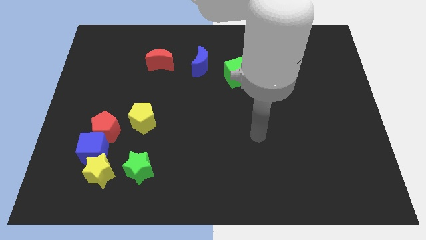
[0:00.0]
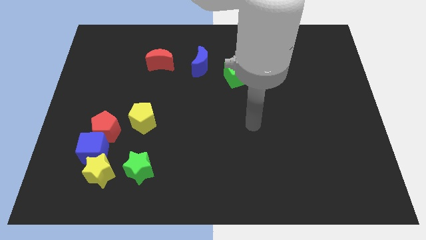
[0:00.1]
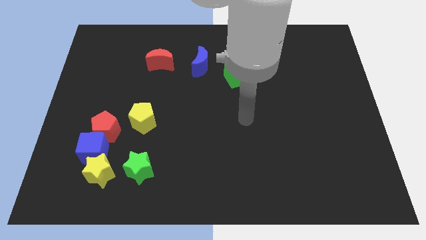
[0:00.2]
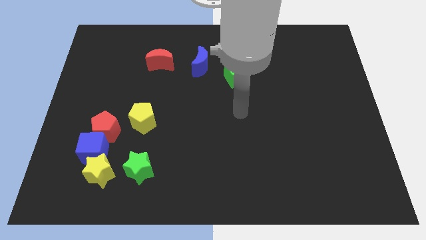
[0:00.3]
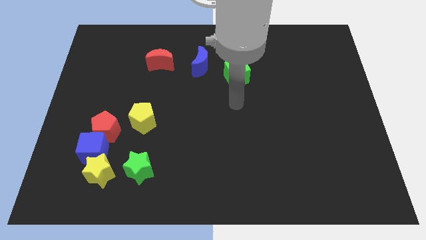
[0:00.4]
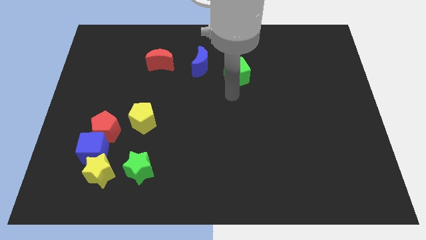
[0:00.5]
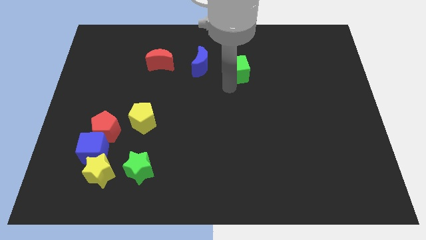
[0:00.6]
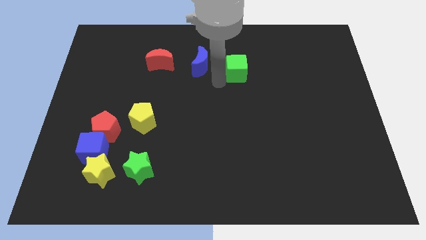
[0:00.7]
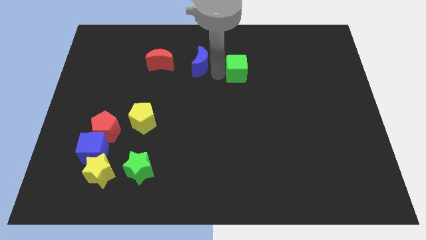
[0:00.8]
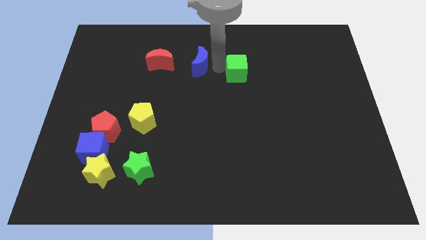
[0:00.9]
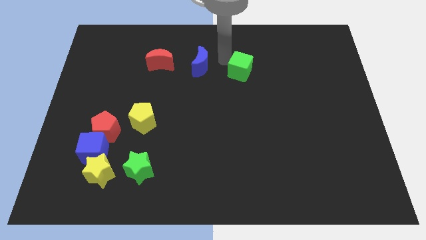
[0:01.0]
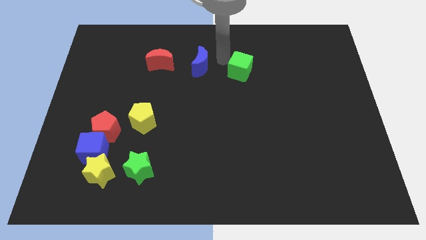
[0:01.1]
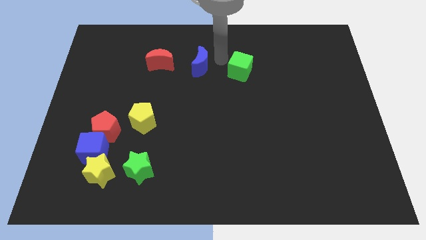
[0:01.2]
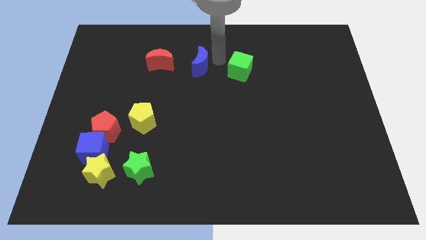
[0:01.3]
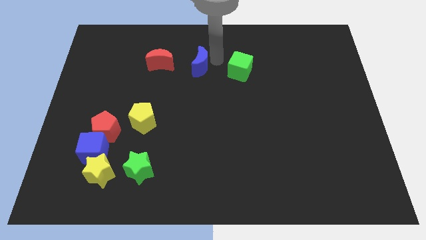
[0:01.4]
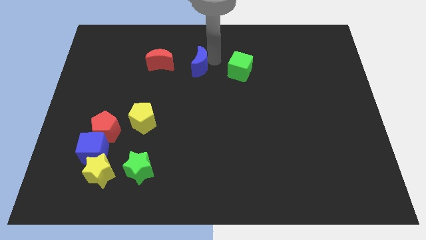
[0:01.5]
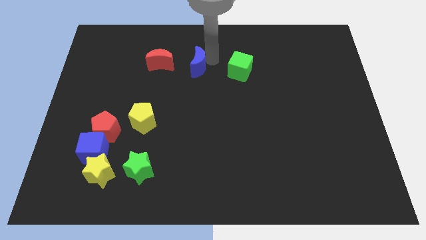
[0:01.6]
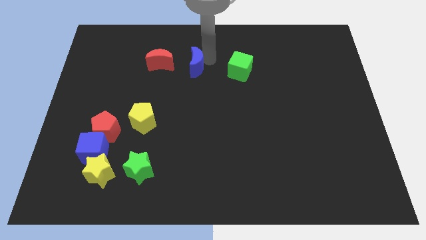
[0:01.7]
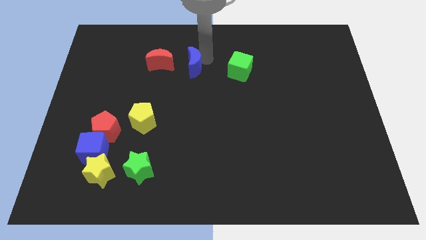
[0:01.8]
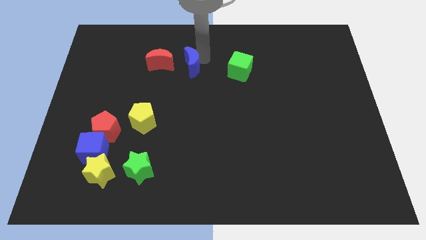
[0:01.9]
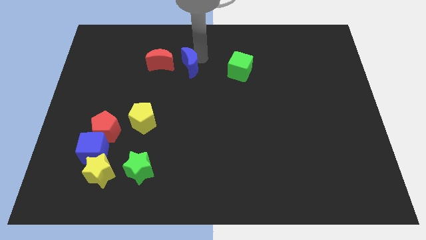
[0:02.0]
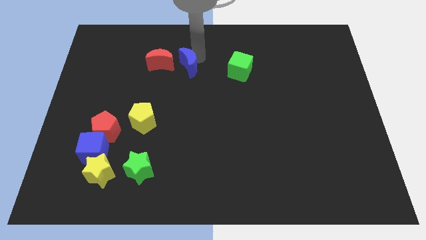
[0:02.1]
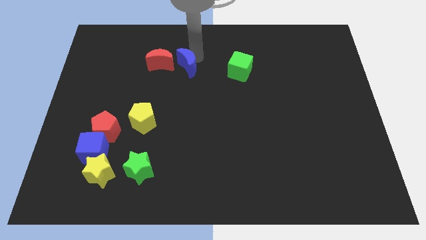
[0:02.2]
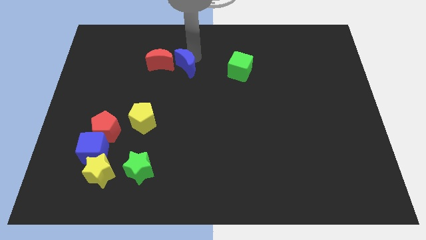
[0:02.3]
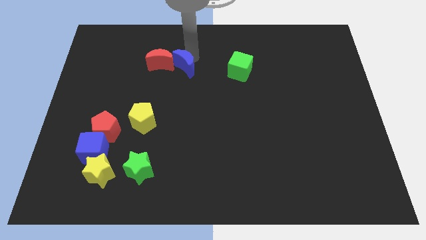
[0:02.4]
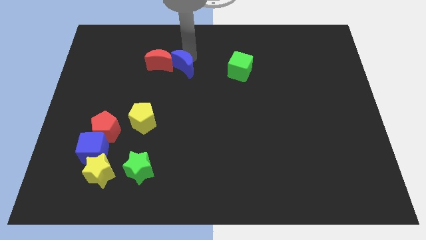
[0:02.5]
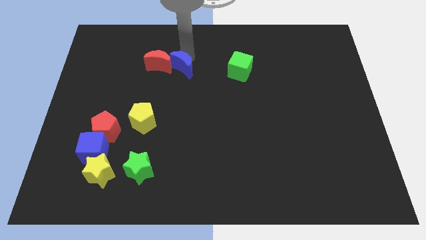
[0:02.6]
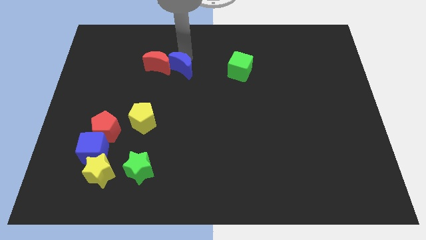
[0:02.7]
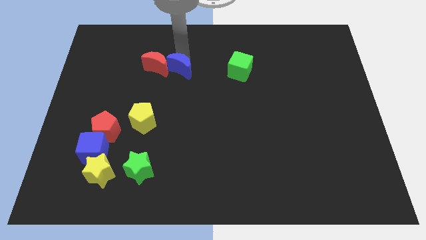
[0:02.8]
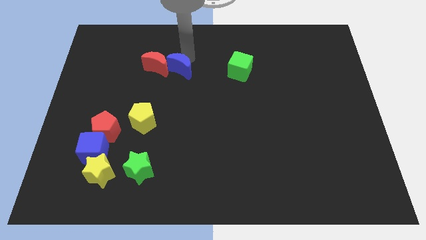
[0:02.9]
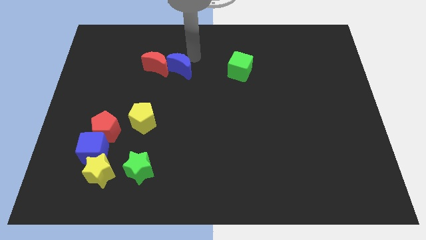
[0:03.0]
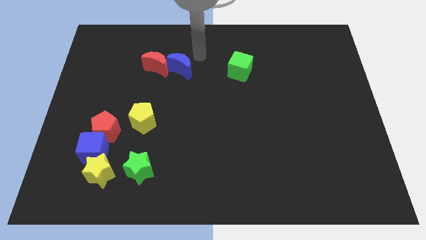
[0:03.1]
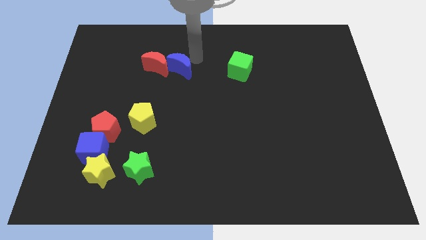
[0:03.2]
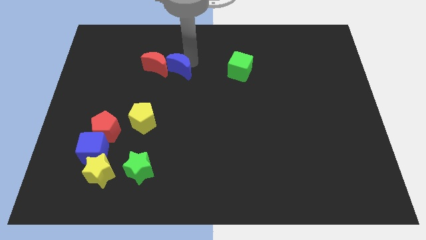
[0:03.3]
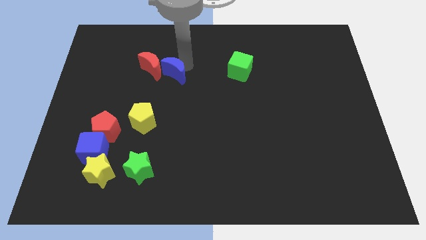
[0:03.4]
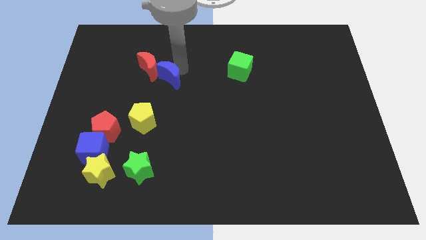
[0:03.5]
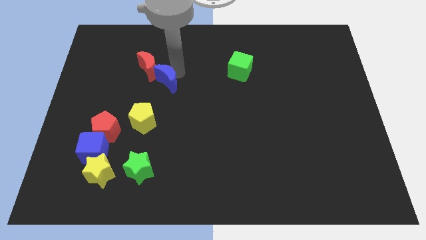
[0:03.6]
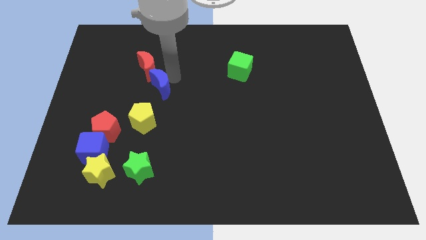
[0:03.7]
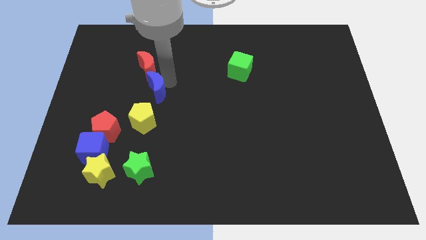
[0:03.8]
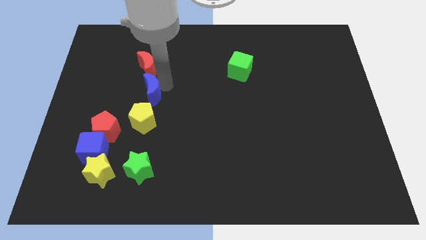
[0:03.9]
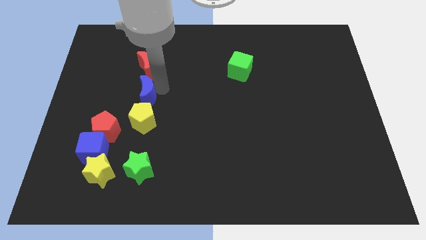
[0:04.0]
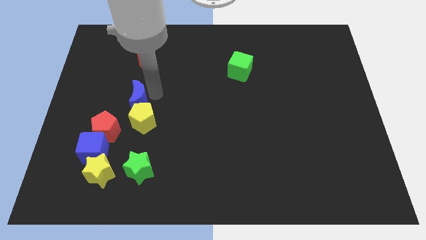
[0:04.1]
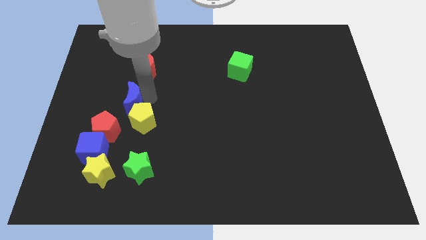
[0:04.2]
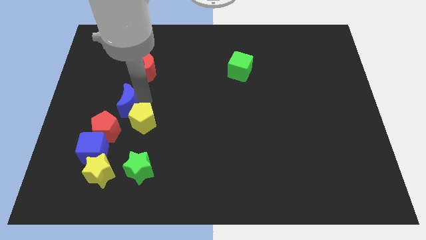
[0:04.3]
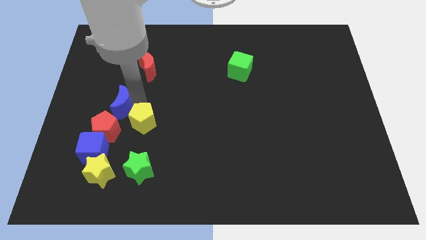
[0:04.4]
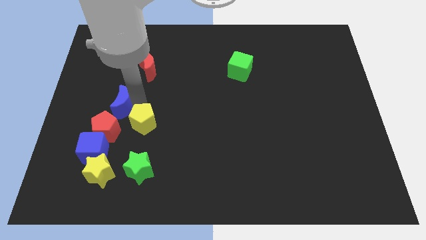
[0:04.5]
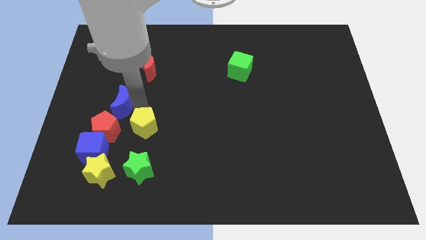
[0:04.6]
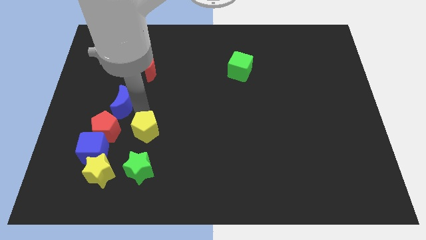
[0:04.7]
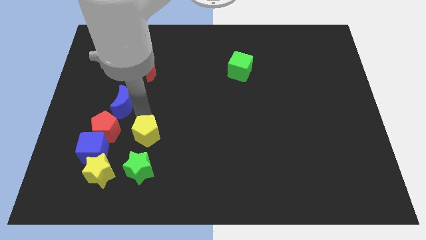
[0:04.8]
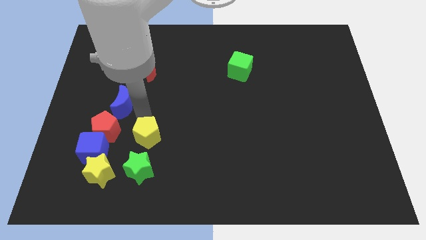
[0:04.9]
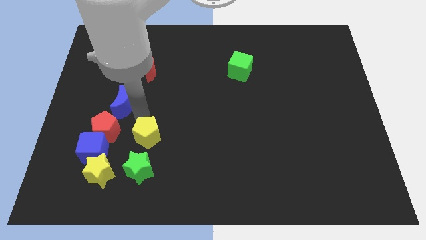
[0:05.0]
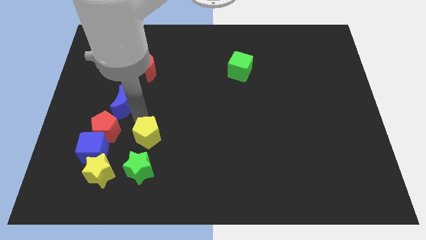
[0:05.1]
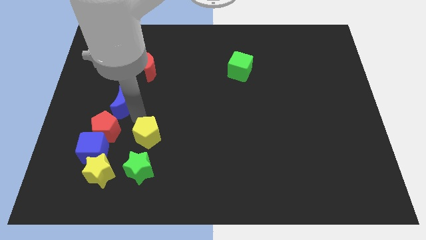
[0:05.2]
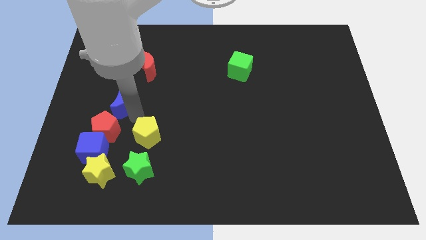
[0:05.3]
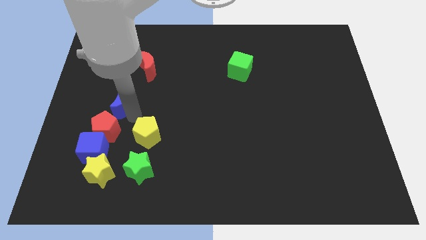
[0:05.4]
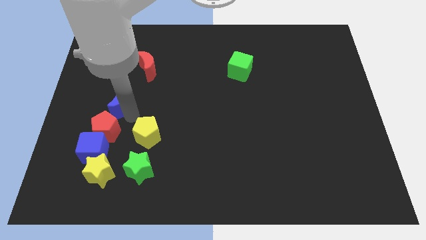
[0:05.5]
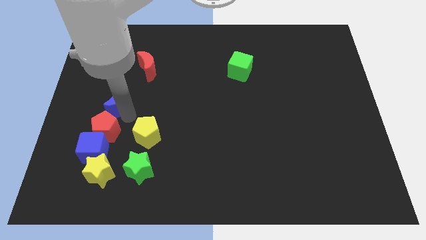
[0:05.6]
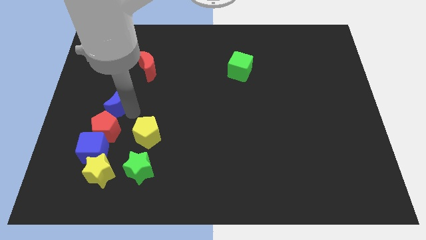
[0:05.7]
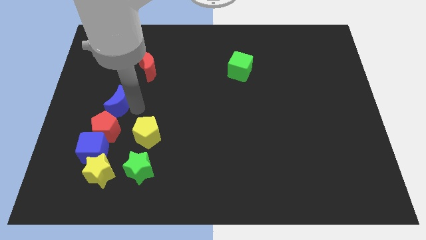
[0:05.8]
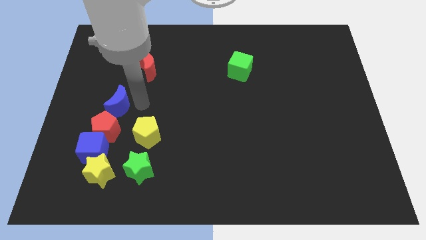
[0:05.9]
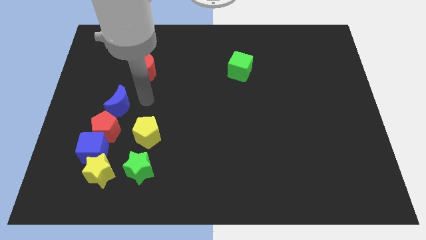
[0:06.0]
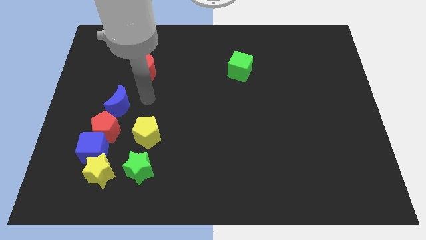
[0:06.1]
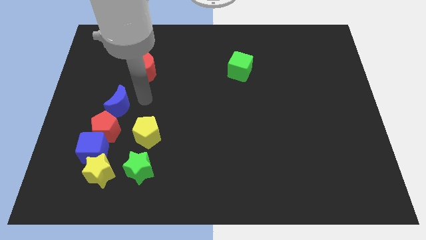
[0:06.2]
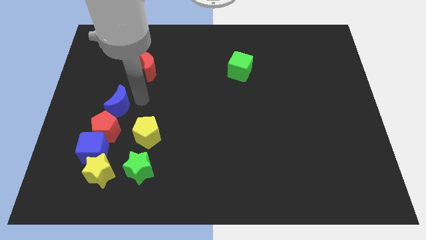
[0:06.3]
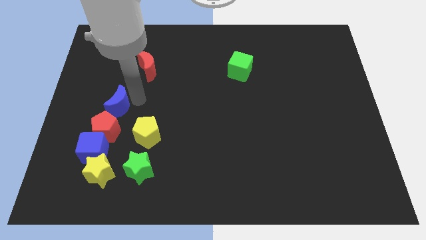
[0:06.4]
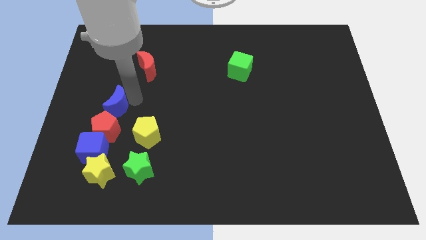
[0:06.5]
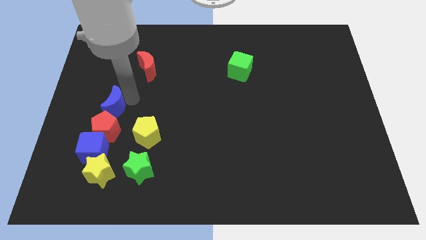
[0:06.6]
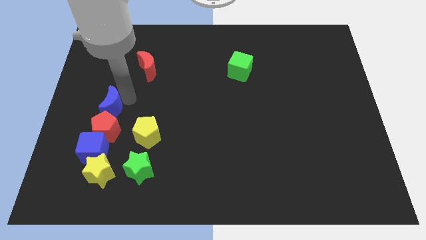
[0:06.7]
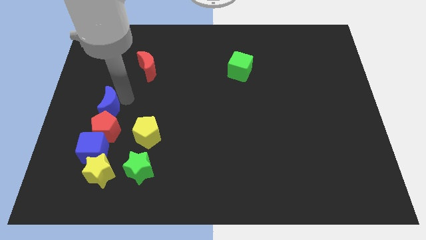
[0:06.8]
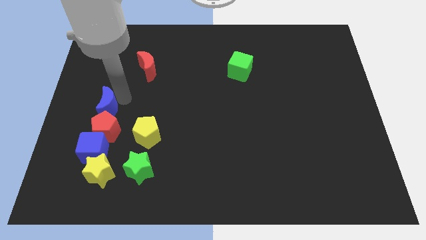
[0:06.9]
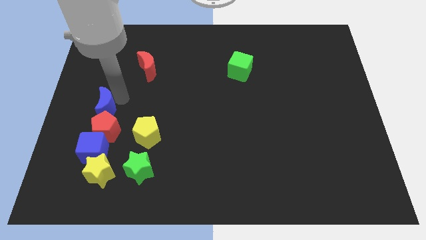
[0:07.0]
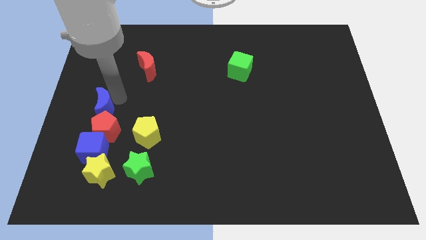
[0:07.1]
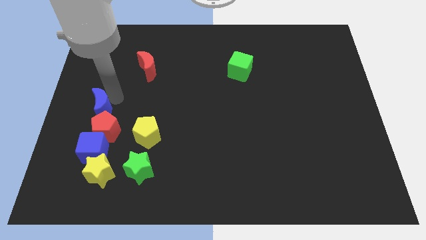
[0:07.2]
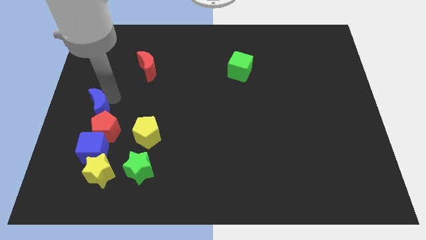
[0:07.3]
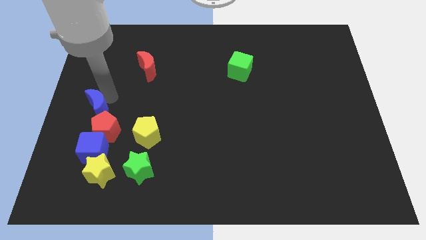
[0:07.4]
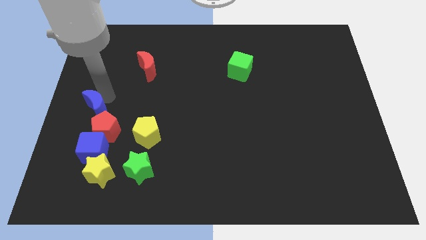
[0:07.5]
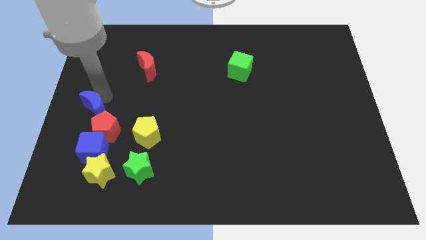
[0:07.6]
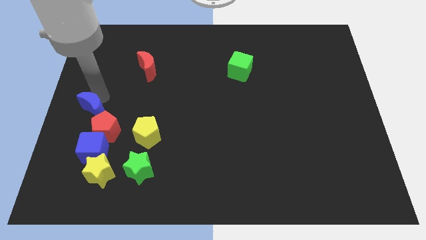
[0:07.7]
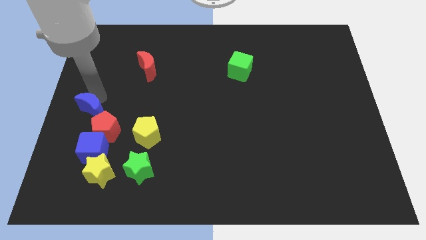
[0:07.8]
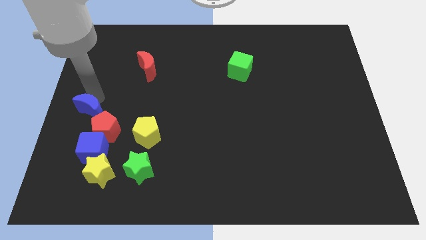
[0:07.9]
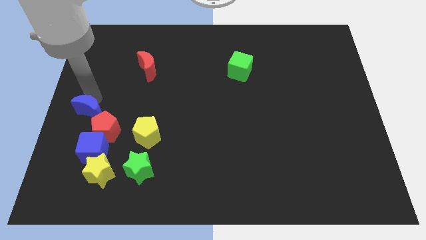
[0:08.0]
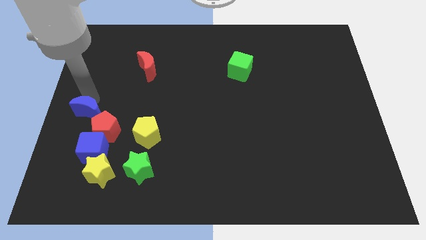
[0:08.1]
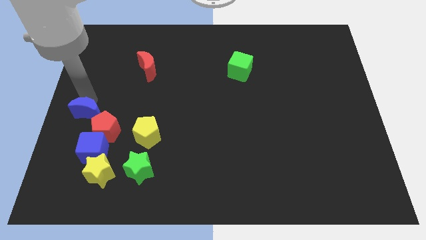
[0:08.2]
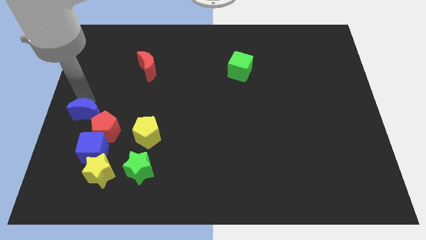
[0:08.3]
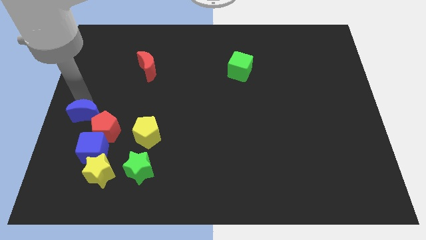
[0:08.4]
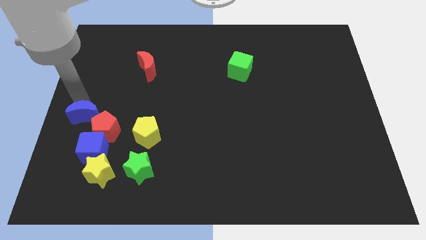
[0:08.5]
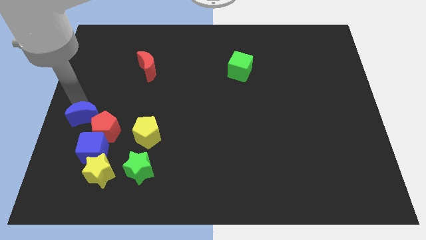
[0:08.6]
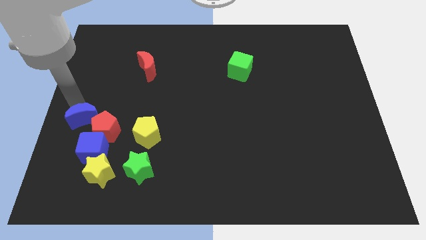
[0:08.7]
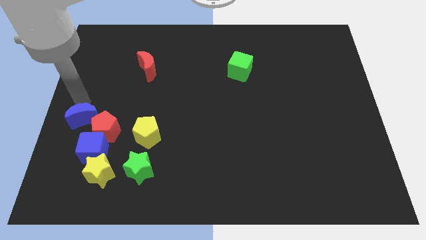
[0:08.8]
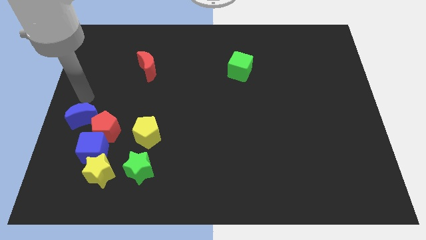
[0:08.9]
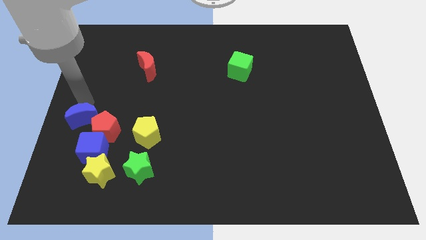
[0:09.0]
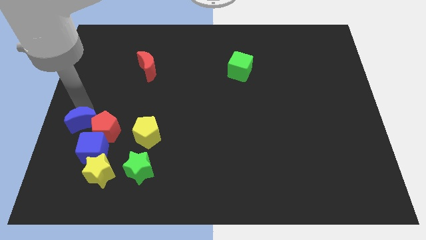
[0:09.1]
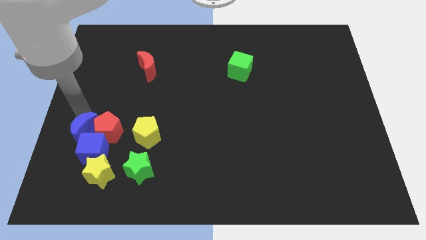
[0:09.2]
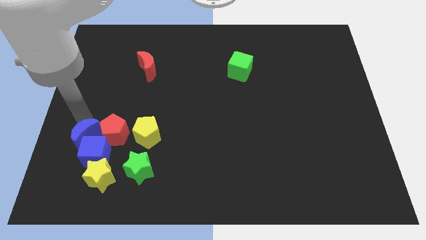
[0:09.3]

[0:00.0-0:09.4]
push the blue moon diagonally up and to the left of the yellow star
